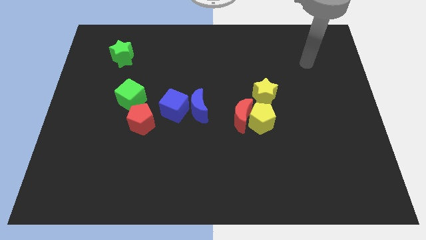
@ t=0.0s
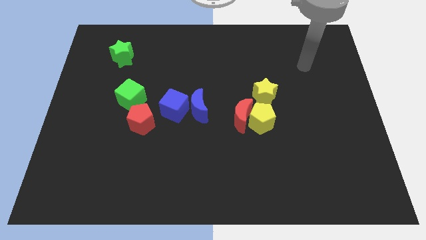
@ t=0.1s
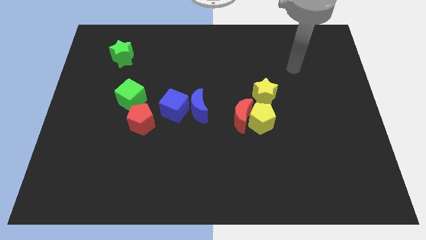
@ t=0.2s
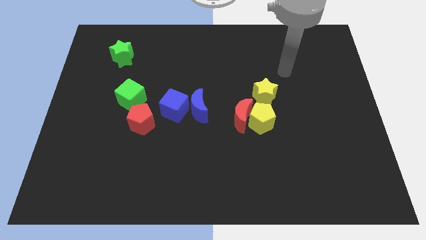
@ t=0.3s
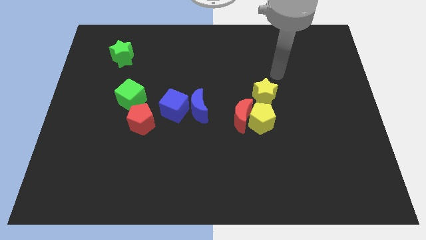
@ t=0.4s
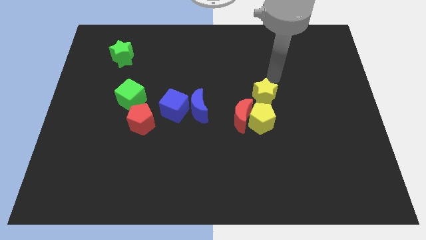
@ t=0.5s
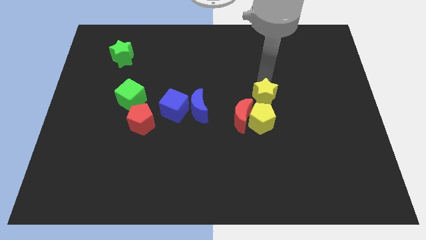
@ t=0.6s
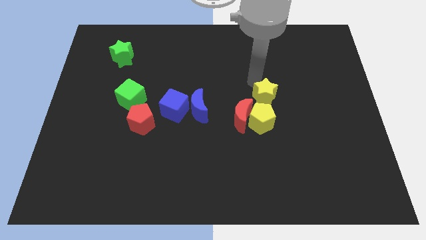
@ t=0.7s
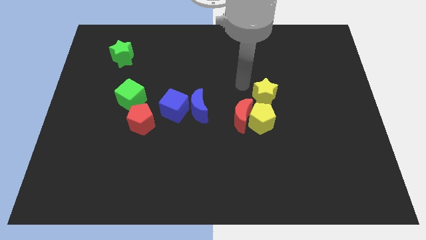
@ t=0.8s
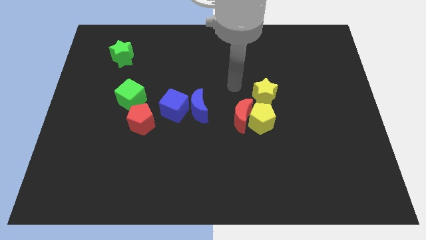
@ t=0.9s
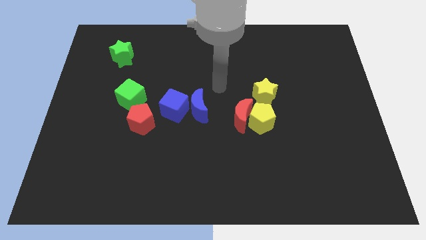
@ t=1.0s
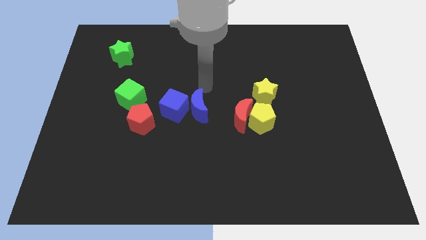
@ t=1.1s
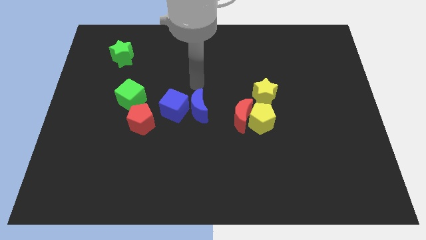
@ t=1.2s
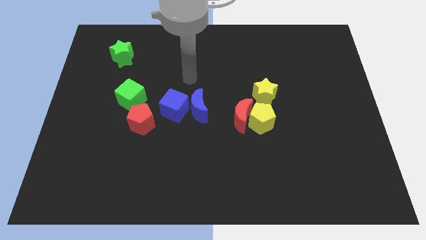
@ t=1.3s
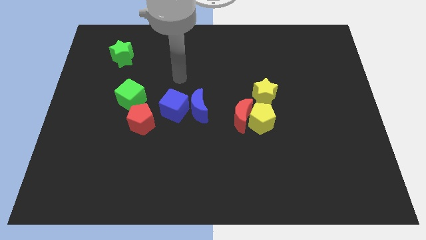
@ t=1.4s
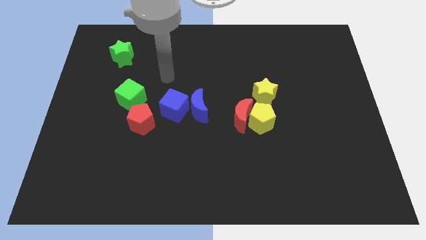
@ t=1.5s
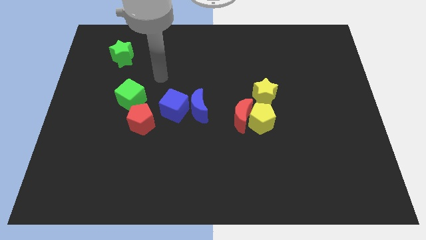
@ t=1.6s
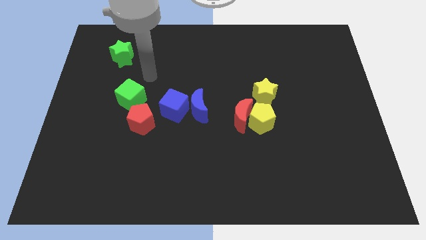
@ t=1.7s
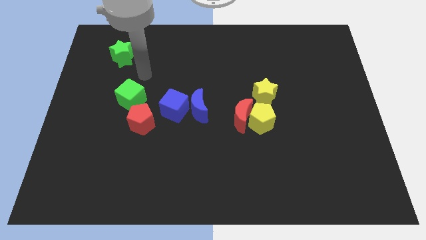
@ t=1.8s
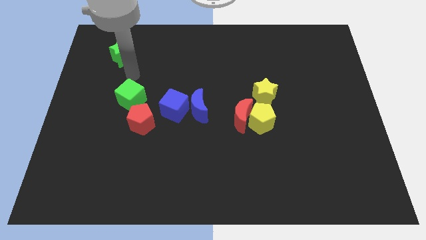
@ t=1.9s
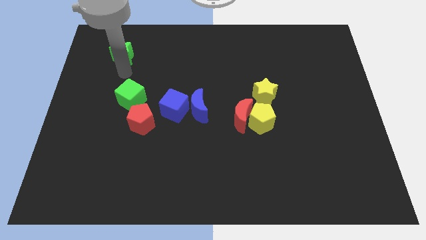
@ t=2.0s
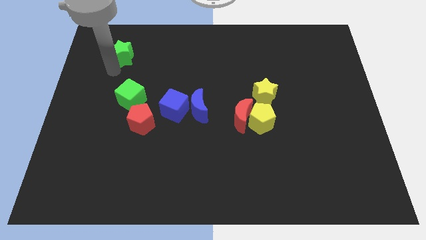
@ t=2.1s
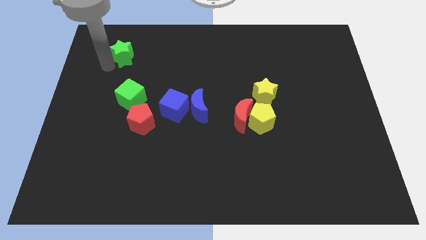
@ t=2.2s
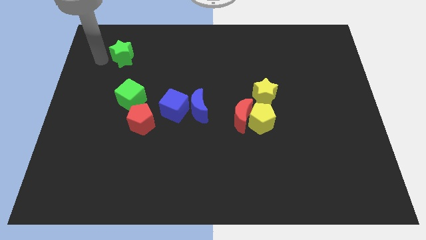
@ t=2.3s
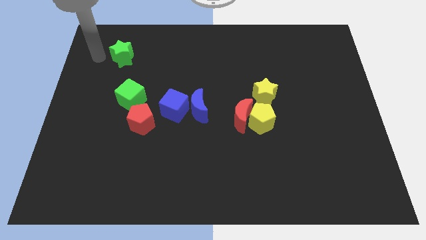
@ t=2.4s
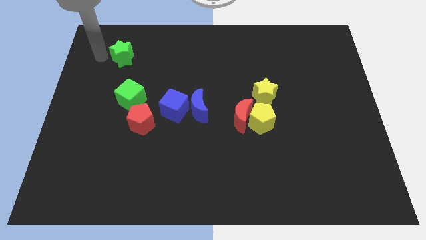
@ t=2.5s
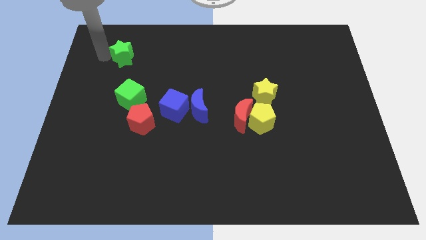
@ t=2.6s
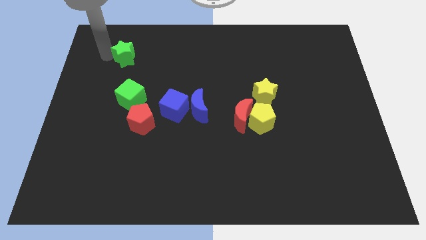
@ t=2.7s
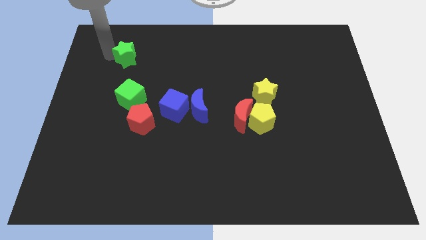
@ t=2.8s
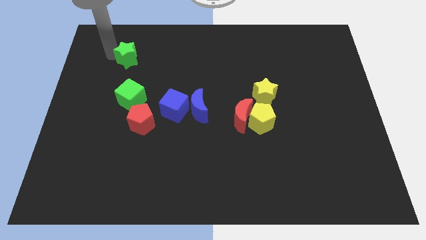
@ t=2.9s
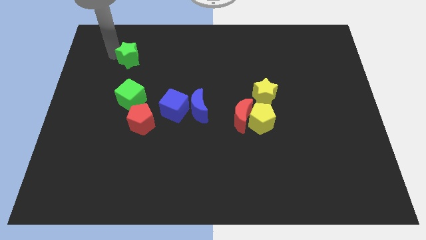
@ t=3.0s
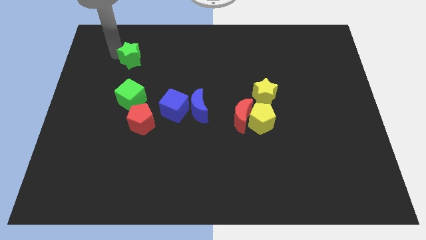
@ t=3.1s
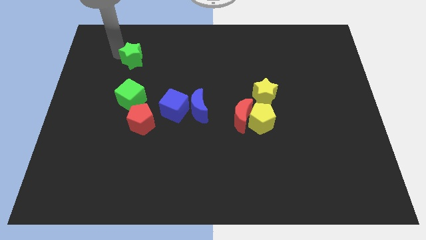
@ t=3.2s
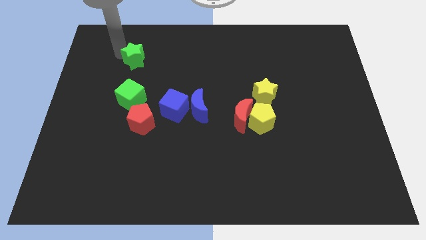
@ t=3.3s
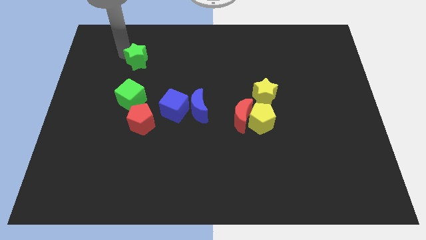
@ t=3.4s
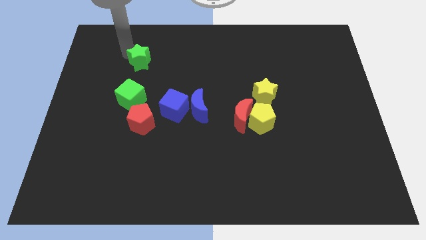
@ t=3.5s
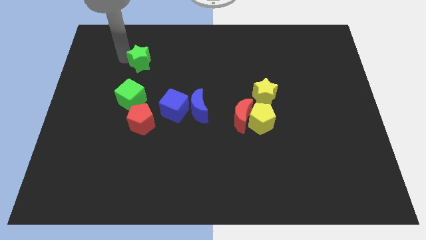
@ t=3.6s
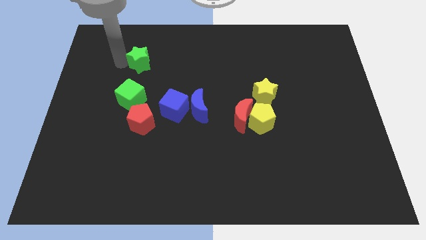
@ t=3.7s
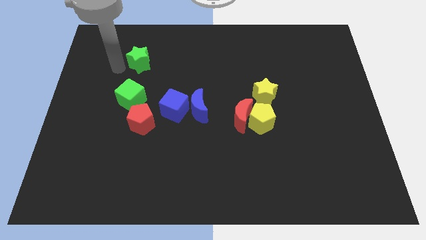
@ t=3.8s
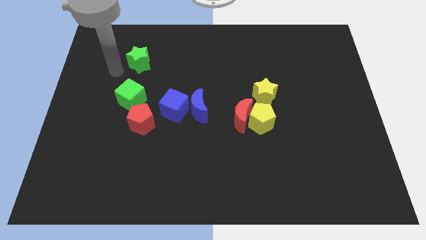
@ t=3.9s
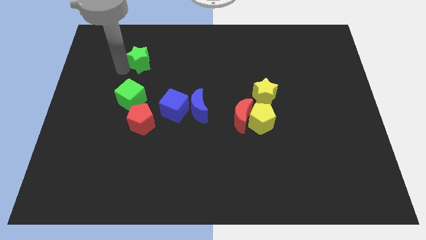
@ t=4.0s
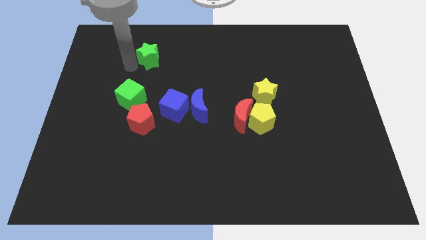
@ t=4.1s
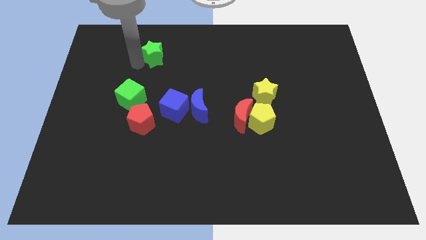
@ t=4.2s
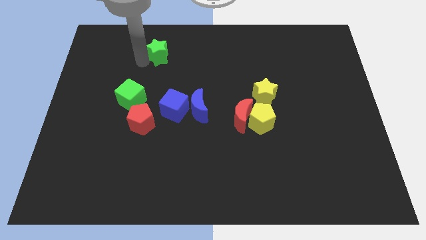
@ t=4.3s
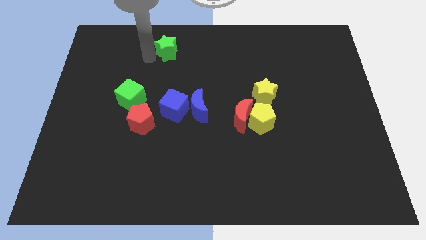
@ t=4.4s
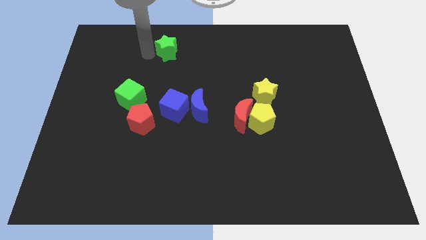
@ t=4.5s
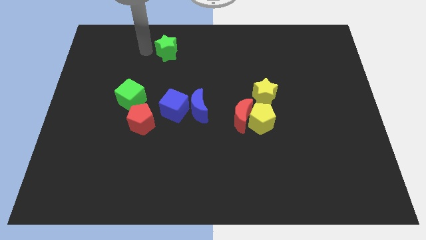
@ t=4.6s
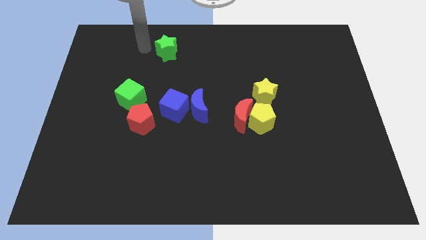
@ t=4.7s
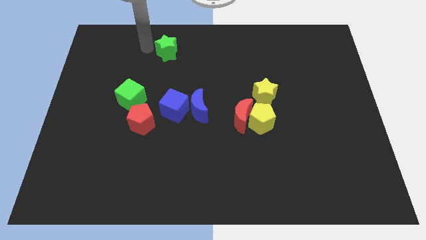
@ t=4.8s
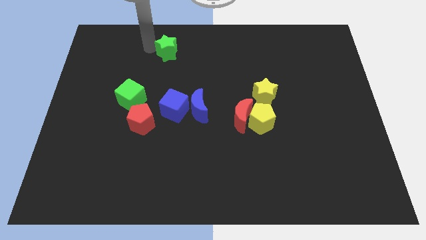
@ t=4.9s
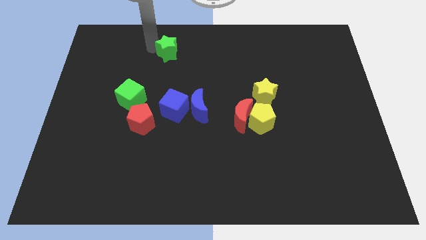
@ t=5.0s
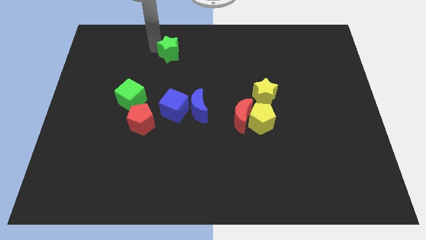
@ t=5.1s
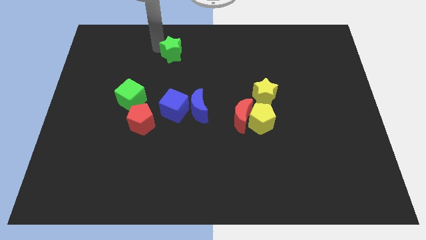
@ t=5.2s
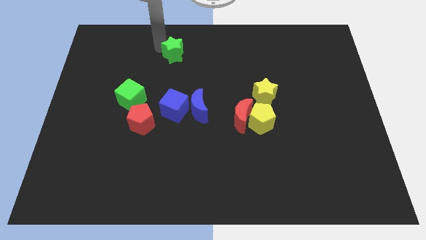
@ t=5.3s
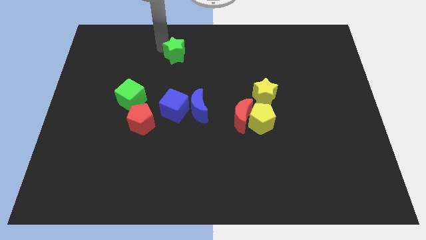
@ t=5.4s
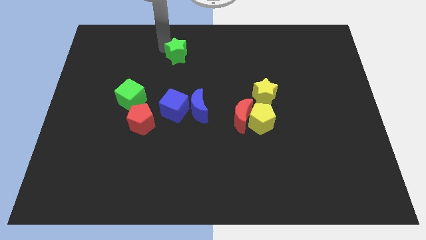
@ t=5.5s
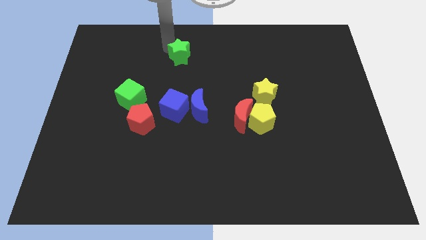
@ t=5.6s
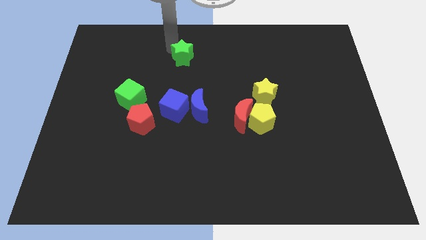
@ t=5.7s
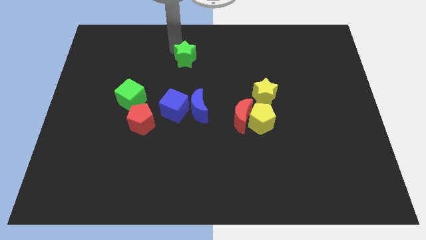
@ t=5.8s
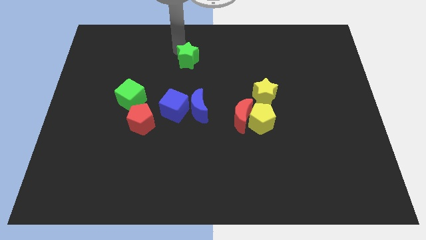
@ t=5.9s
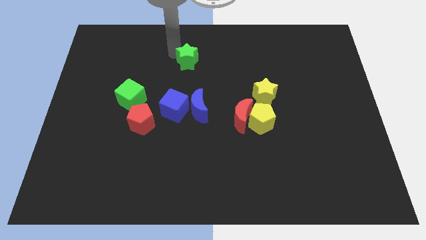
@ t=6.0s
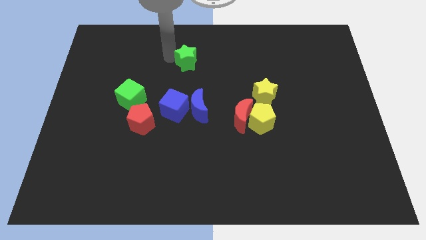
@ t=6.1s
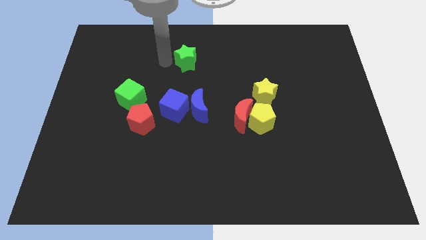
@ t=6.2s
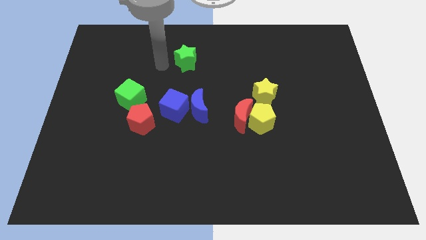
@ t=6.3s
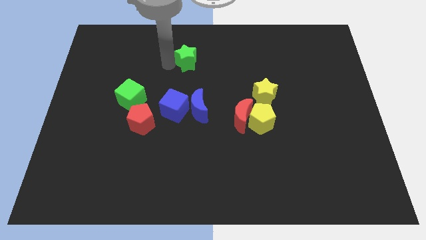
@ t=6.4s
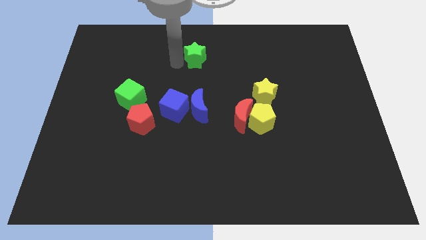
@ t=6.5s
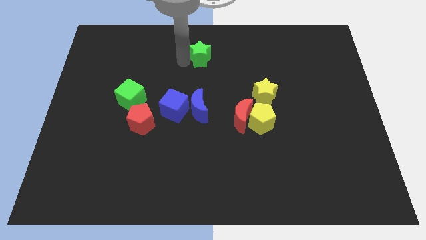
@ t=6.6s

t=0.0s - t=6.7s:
push the green star to the right

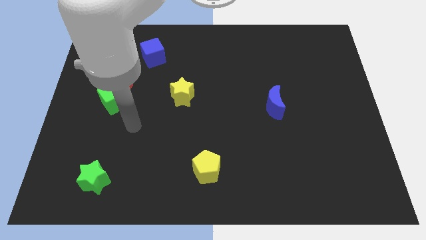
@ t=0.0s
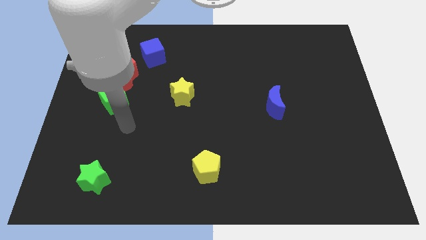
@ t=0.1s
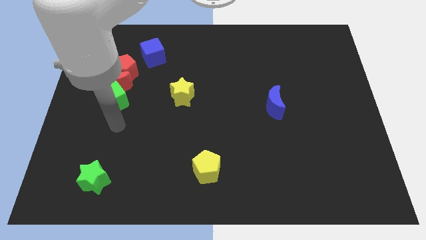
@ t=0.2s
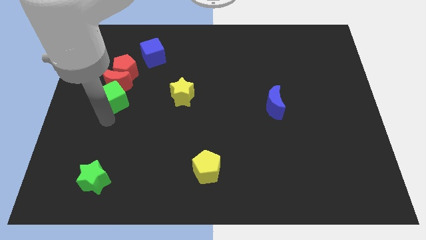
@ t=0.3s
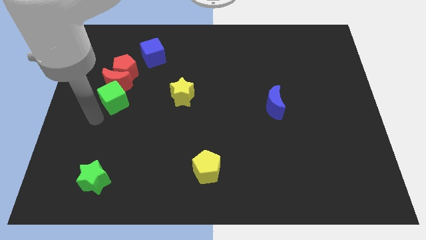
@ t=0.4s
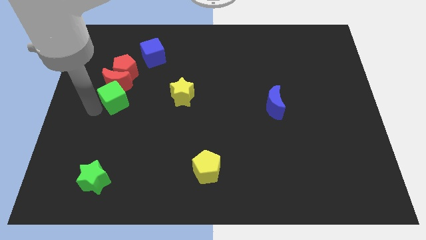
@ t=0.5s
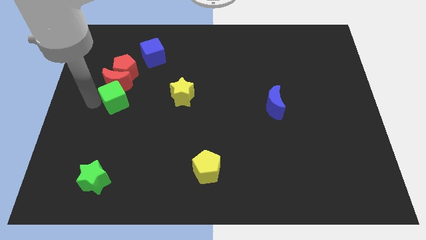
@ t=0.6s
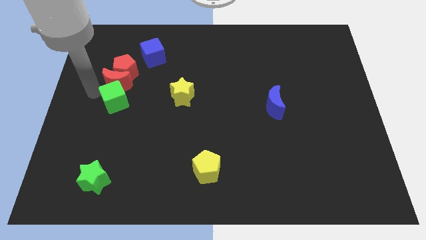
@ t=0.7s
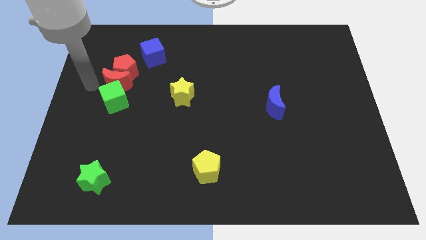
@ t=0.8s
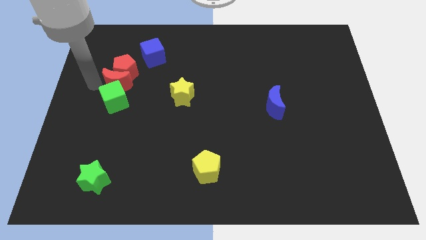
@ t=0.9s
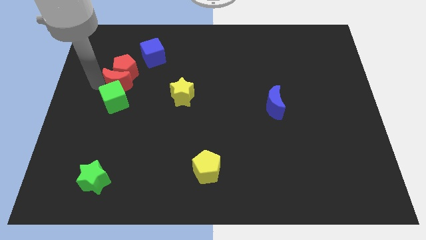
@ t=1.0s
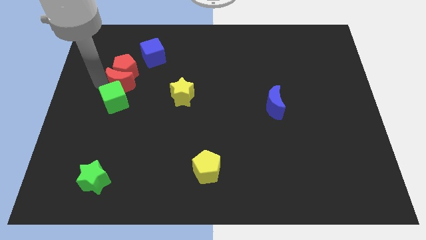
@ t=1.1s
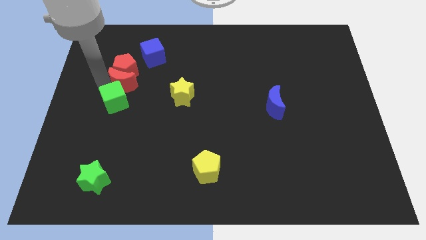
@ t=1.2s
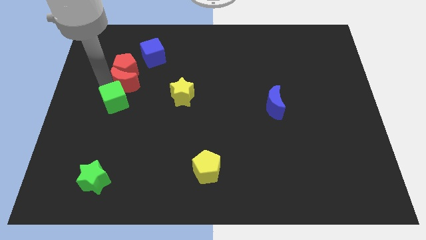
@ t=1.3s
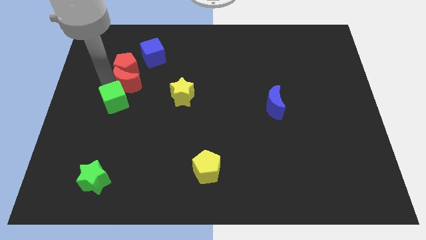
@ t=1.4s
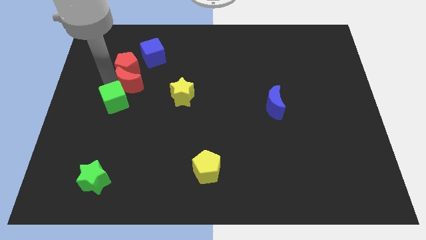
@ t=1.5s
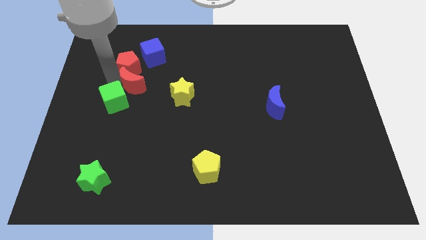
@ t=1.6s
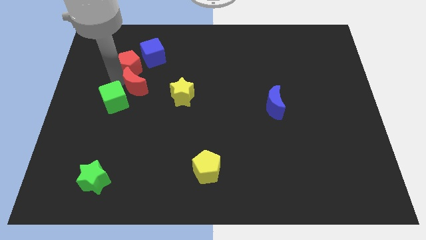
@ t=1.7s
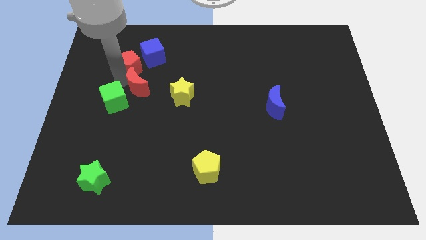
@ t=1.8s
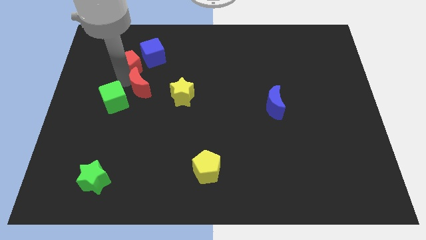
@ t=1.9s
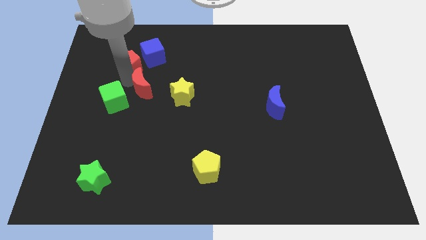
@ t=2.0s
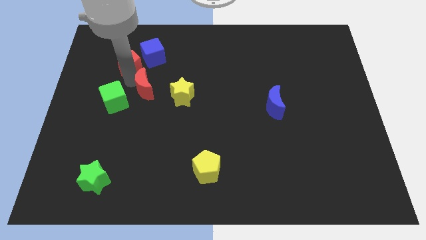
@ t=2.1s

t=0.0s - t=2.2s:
push the red moon right a little bit
